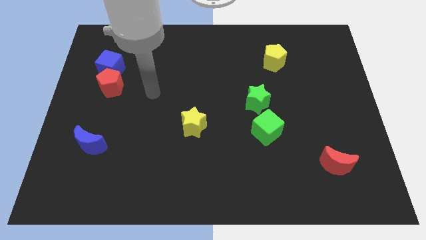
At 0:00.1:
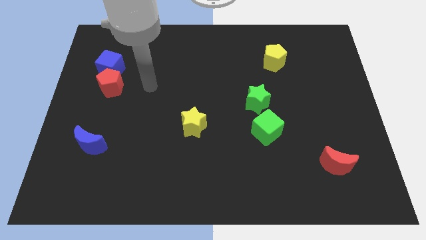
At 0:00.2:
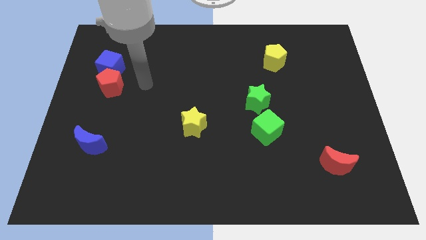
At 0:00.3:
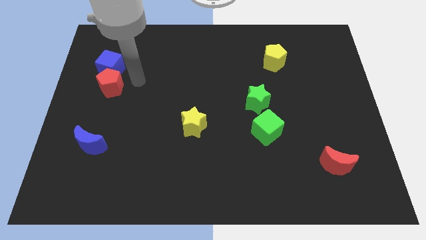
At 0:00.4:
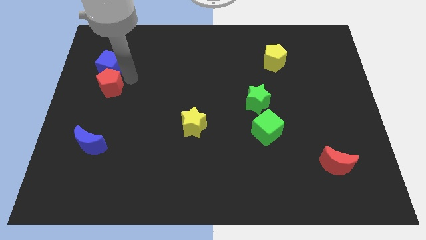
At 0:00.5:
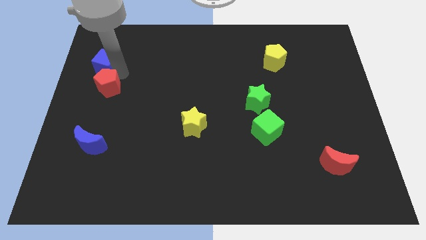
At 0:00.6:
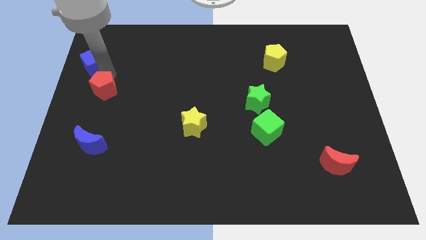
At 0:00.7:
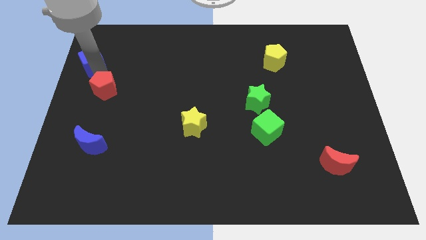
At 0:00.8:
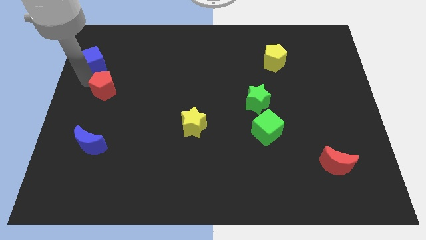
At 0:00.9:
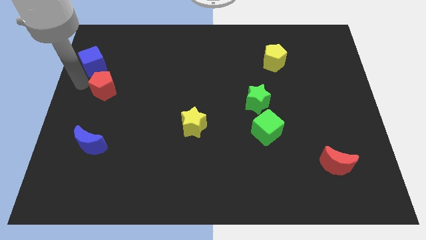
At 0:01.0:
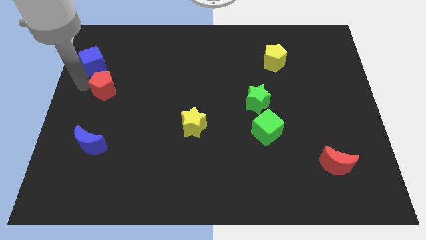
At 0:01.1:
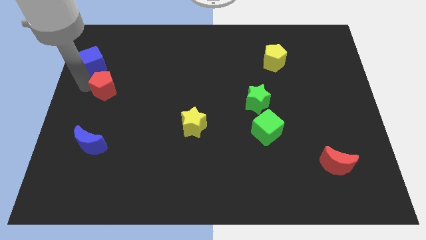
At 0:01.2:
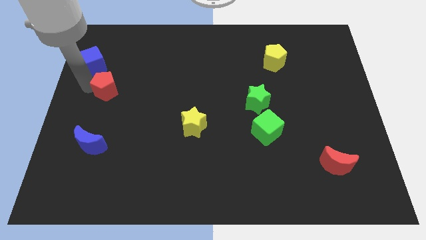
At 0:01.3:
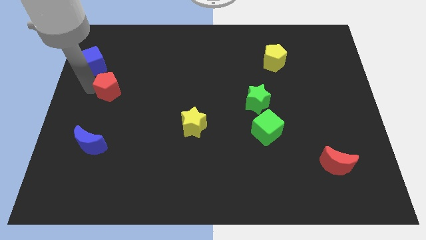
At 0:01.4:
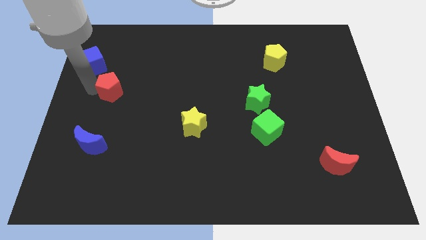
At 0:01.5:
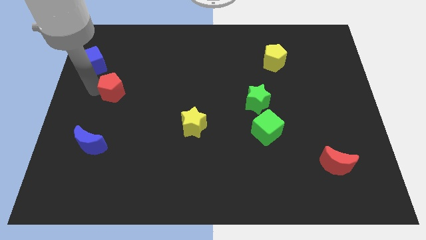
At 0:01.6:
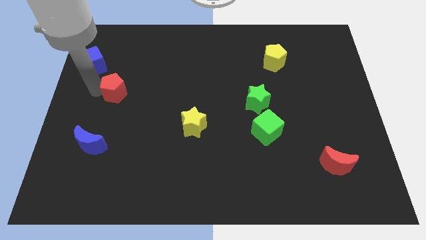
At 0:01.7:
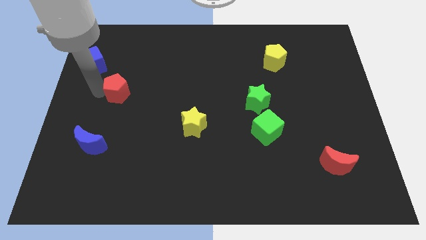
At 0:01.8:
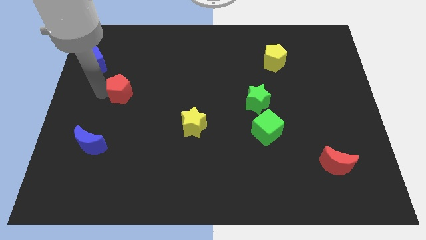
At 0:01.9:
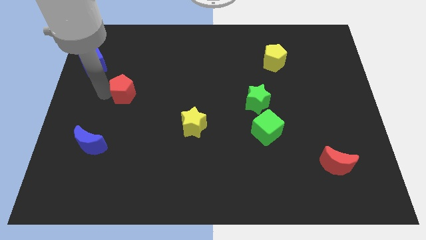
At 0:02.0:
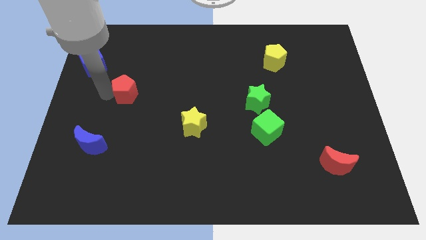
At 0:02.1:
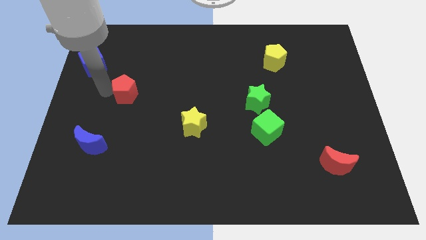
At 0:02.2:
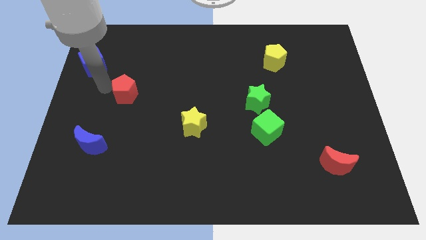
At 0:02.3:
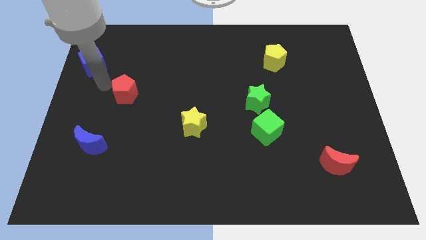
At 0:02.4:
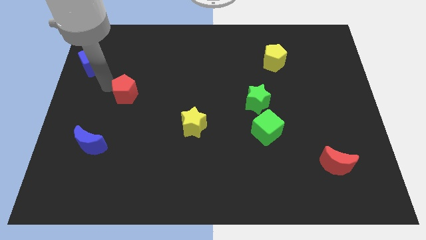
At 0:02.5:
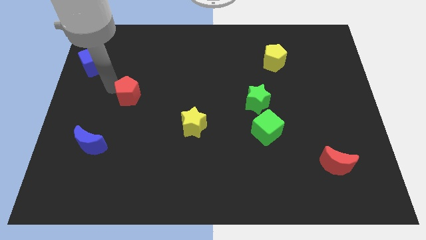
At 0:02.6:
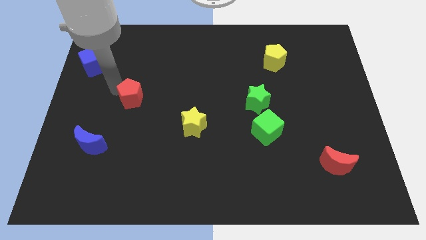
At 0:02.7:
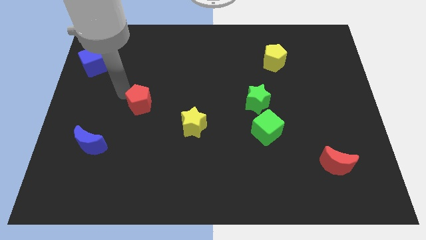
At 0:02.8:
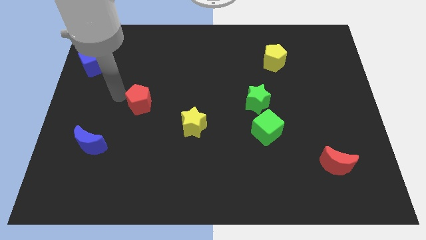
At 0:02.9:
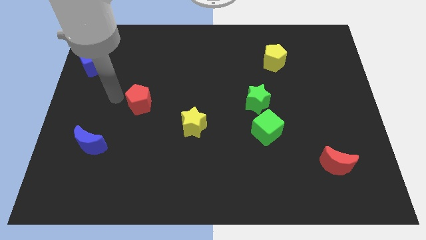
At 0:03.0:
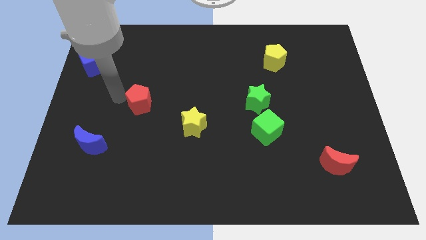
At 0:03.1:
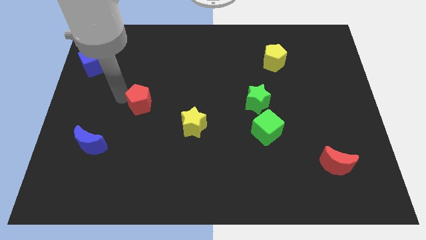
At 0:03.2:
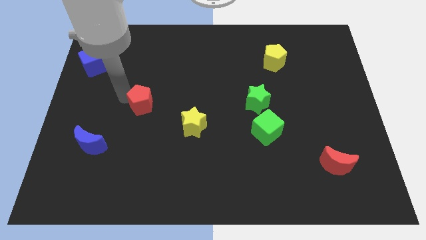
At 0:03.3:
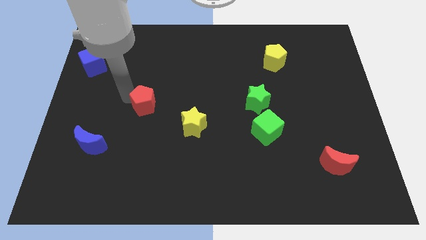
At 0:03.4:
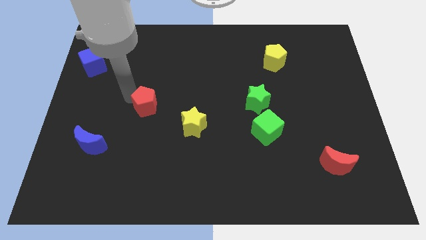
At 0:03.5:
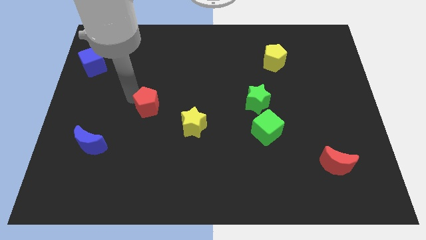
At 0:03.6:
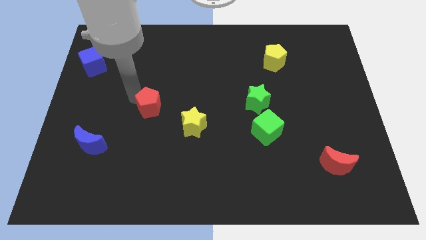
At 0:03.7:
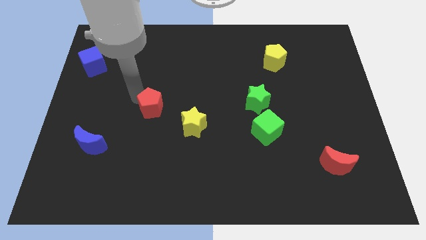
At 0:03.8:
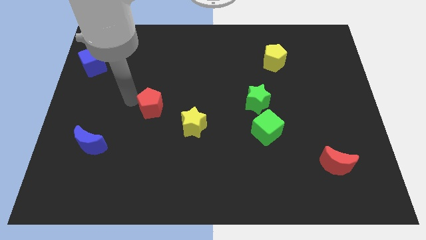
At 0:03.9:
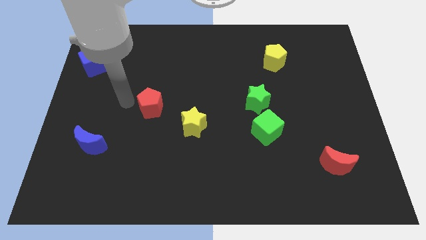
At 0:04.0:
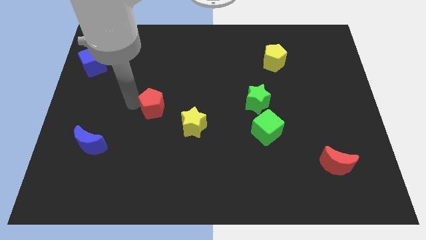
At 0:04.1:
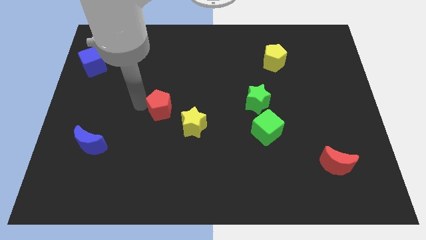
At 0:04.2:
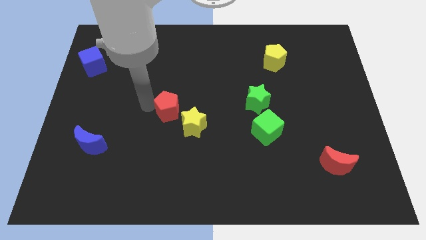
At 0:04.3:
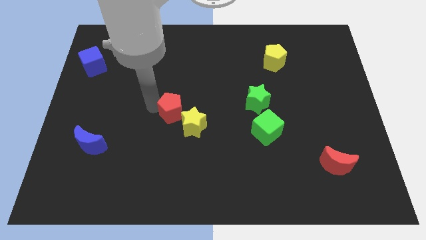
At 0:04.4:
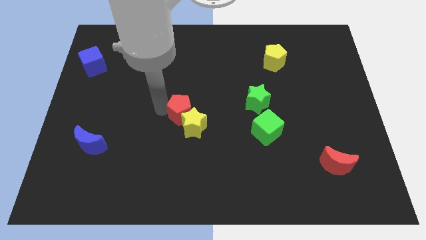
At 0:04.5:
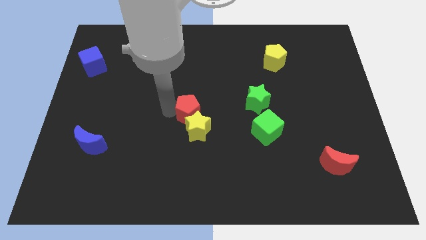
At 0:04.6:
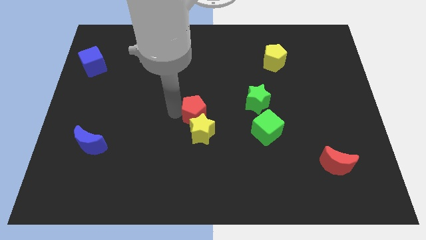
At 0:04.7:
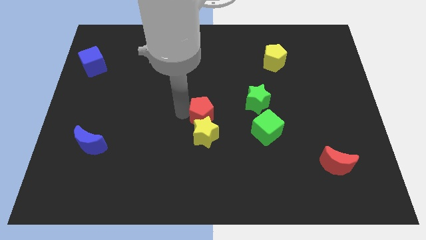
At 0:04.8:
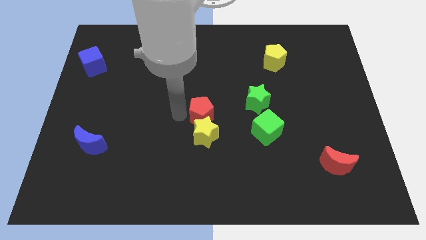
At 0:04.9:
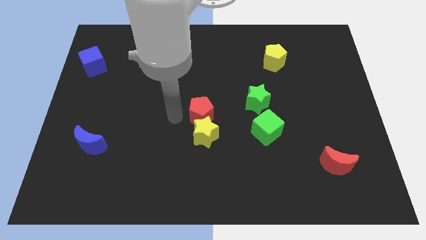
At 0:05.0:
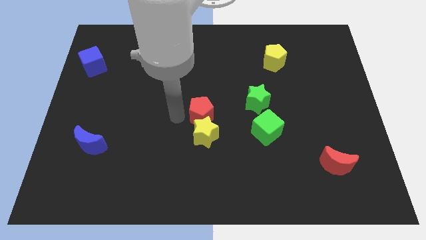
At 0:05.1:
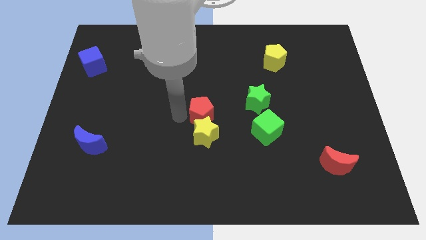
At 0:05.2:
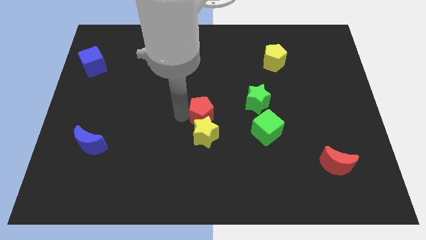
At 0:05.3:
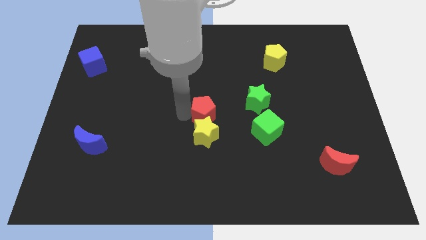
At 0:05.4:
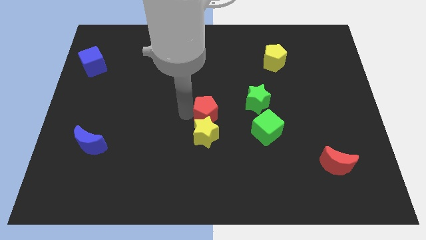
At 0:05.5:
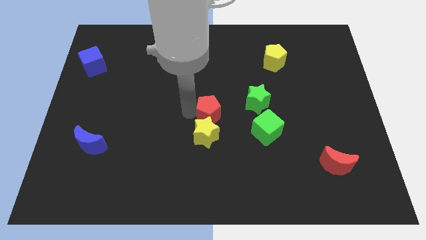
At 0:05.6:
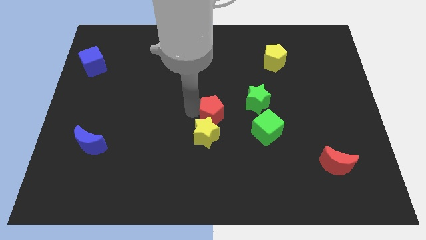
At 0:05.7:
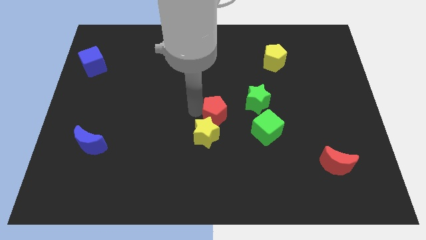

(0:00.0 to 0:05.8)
put the red pentagon to the bottom left side of the green star
